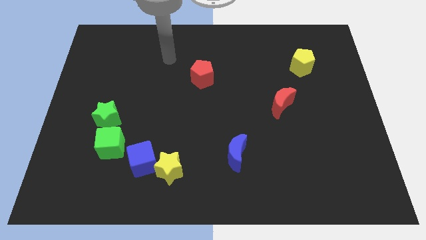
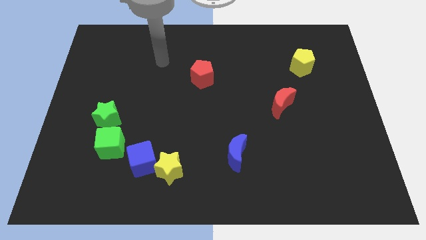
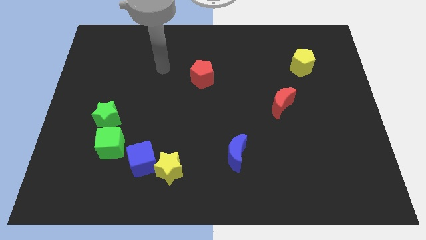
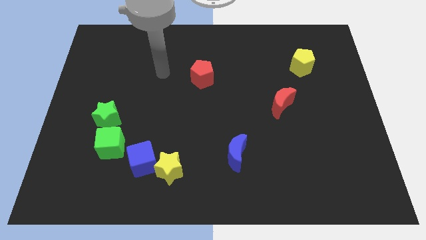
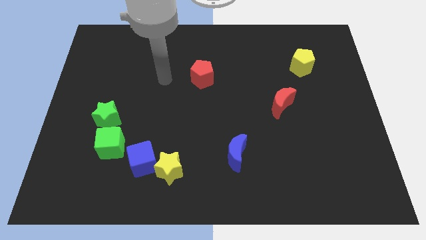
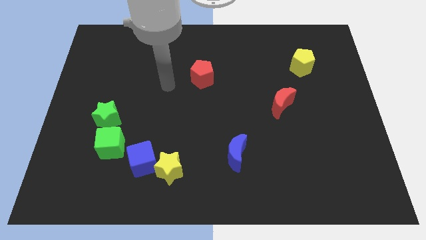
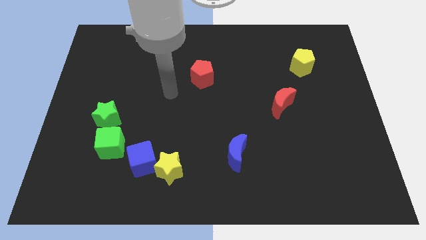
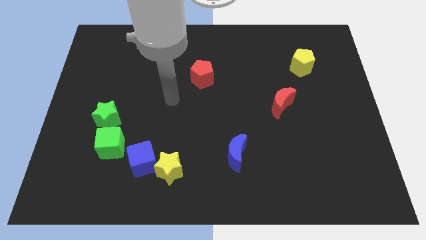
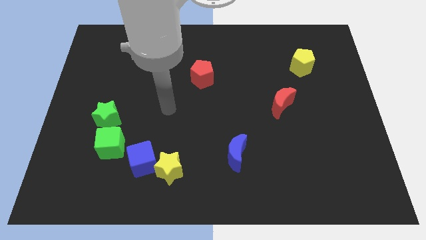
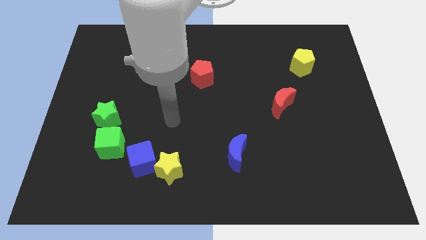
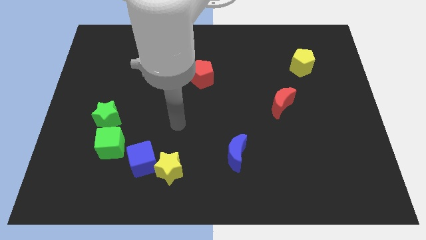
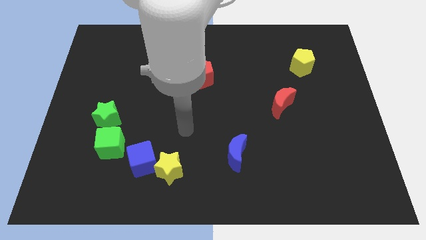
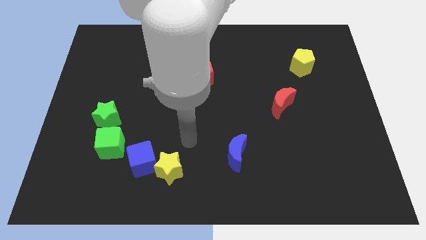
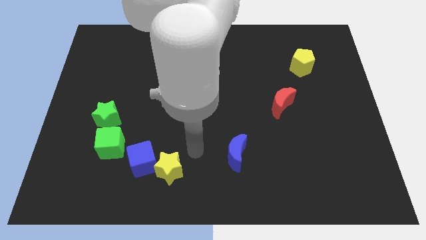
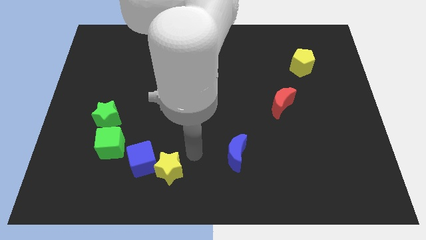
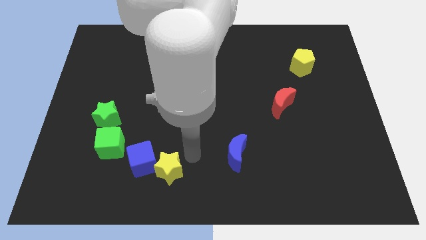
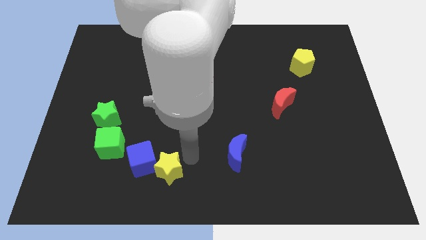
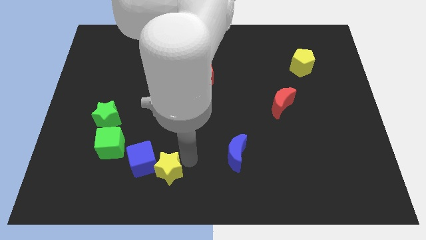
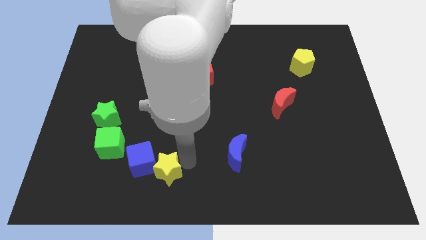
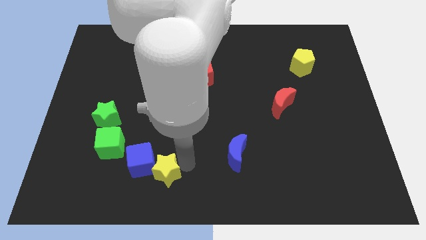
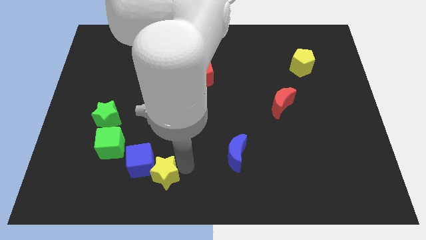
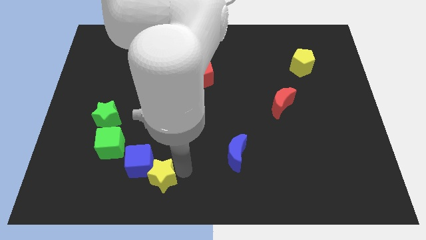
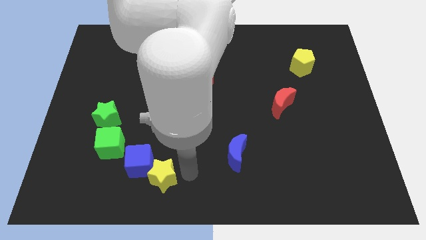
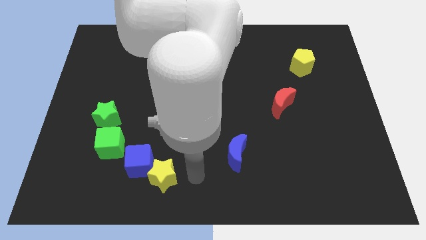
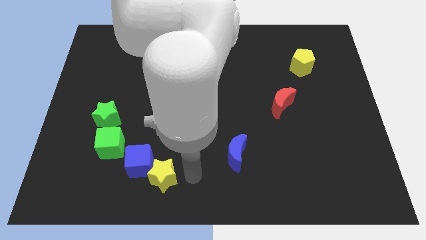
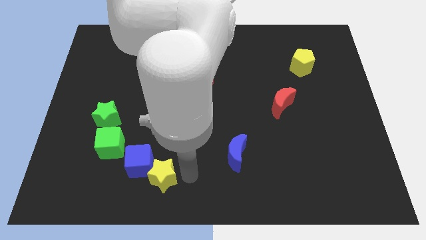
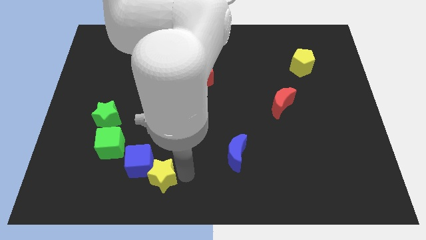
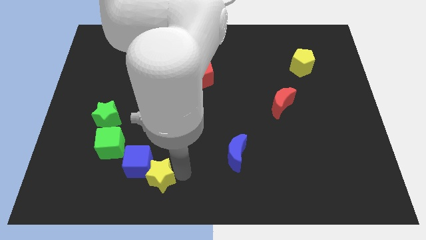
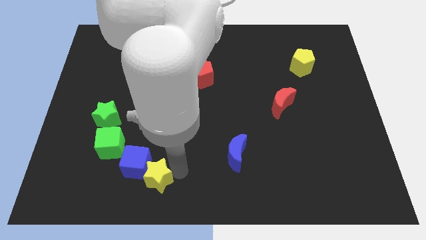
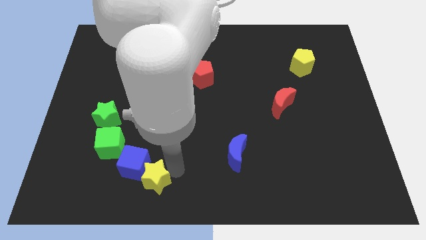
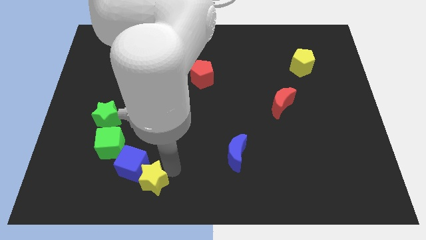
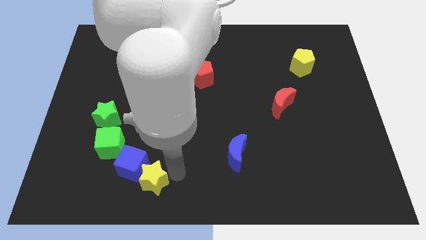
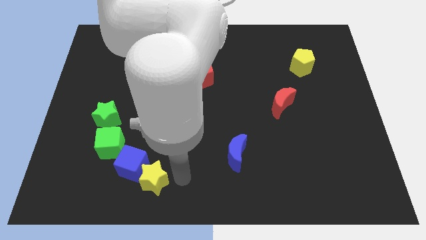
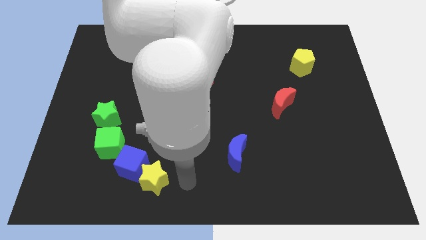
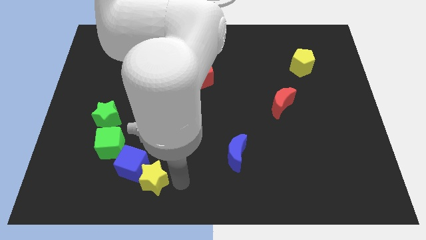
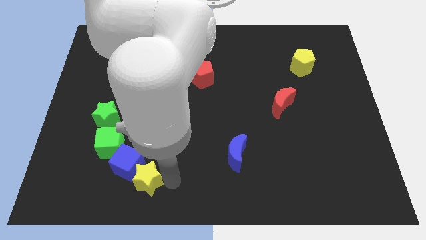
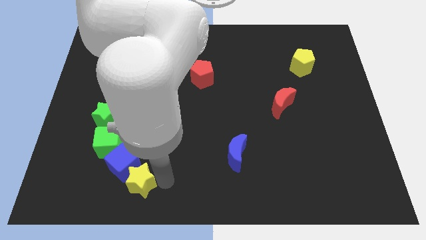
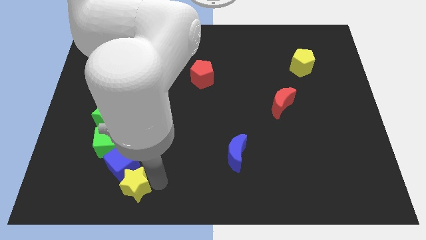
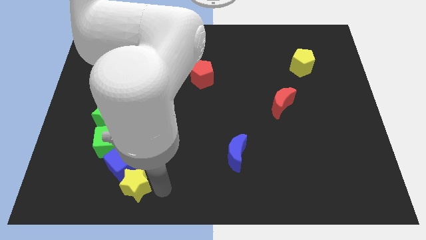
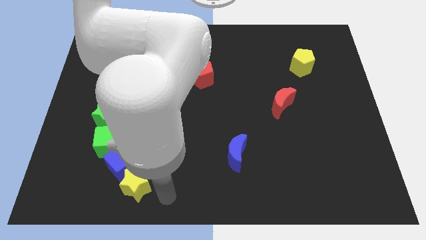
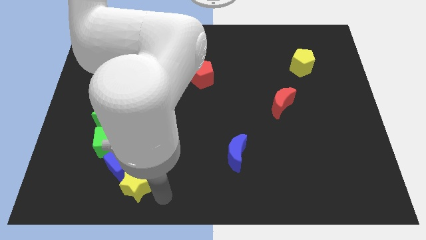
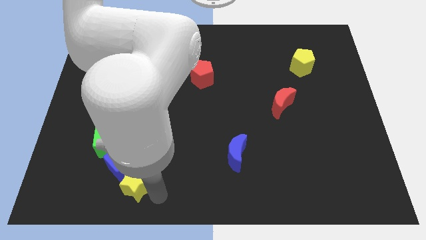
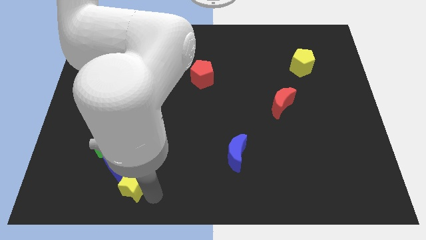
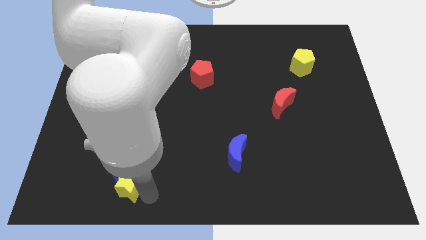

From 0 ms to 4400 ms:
slightly move the yellow star left

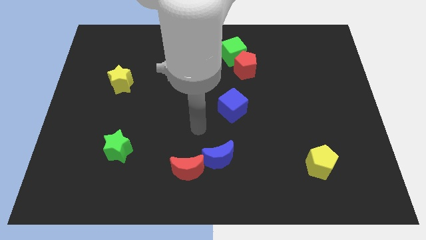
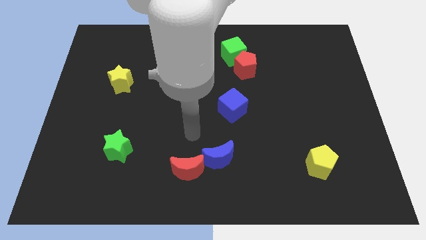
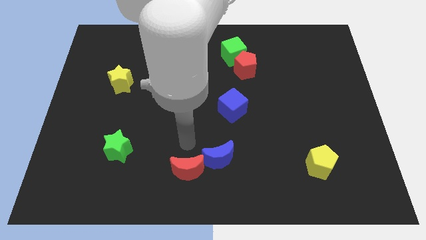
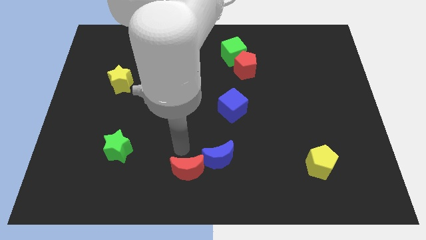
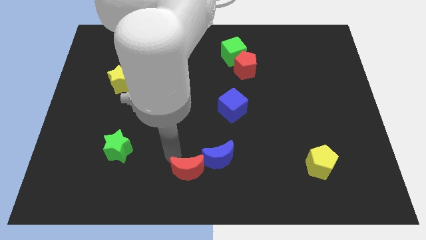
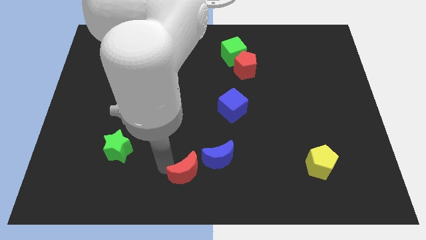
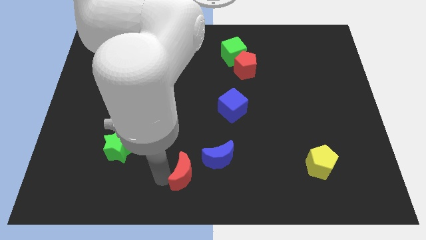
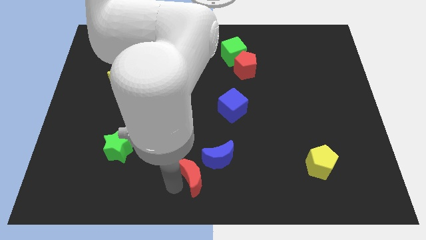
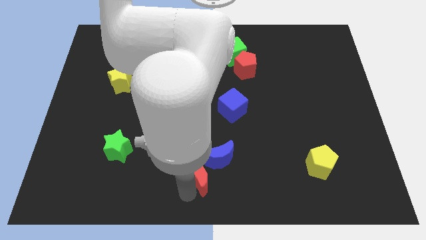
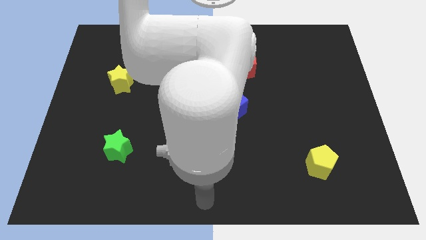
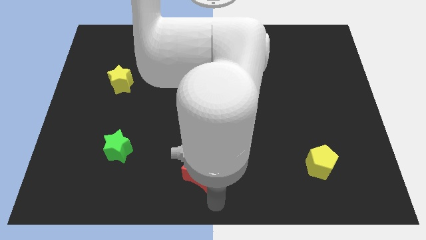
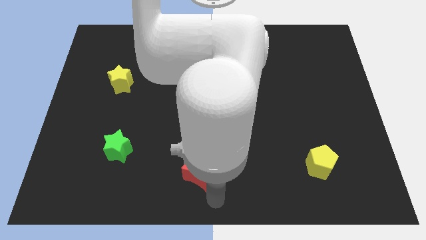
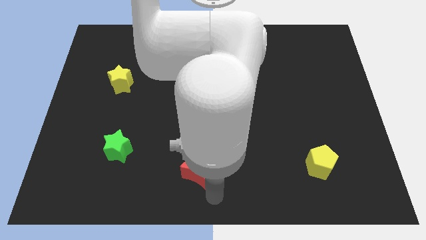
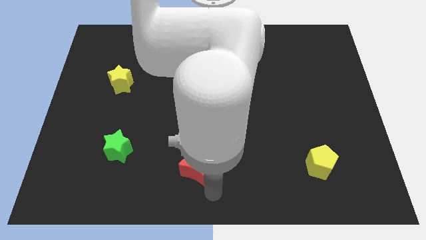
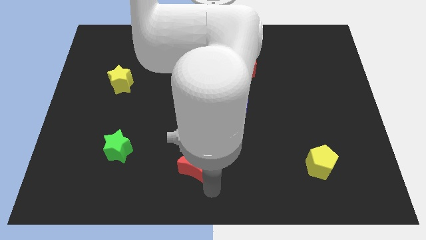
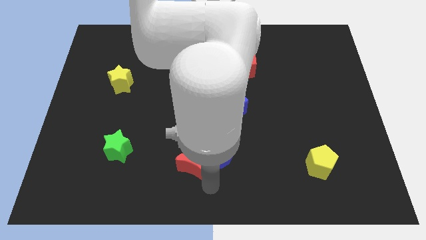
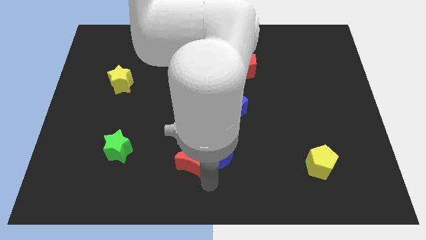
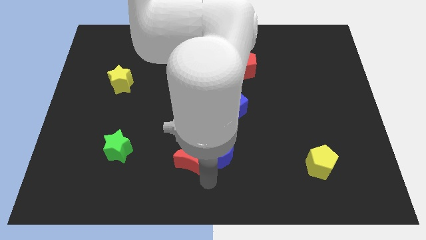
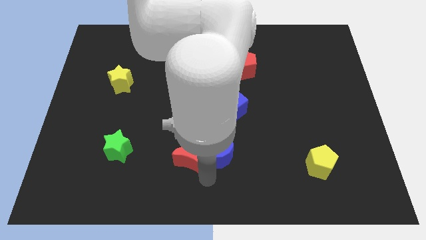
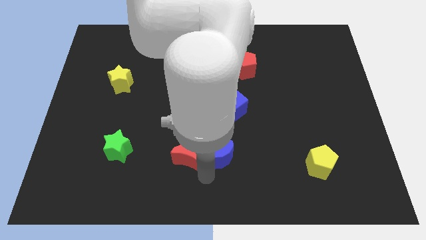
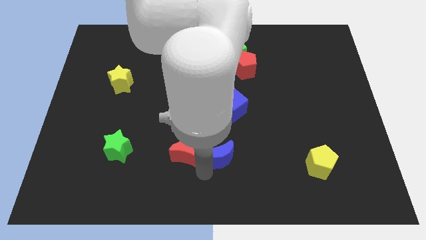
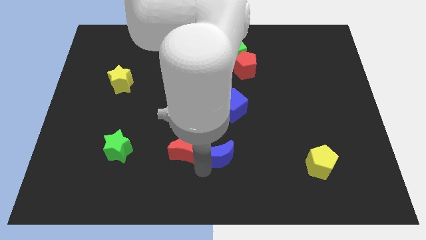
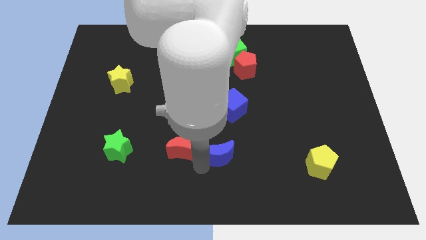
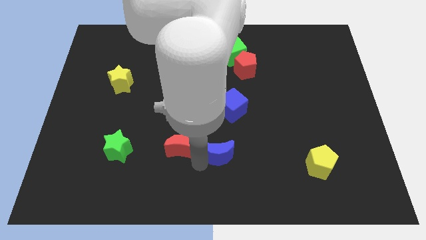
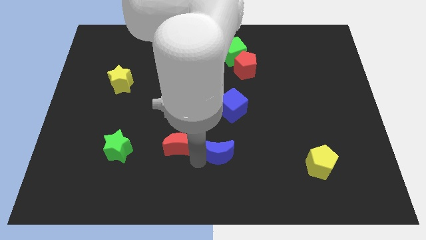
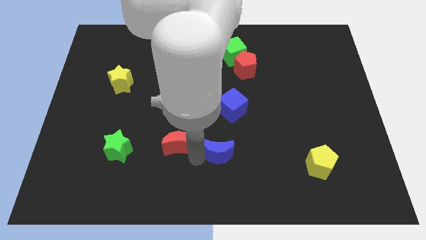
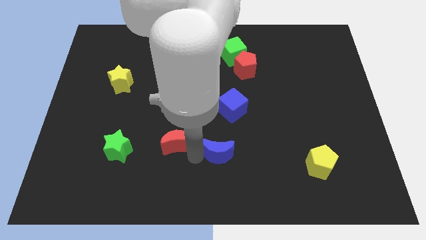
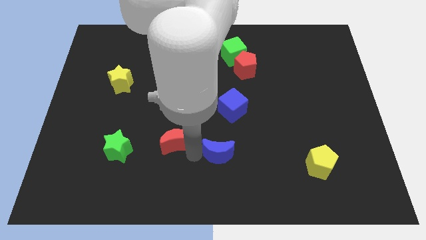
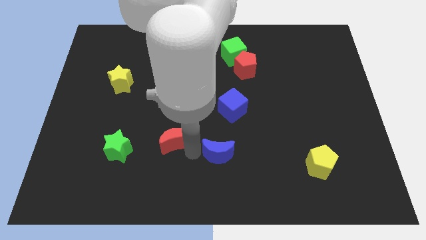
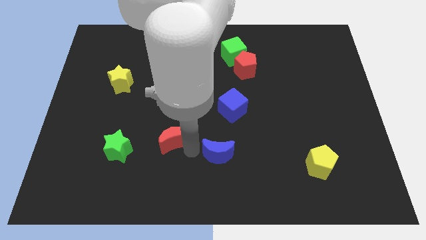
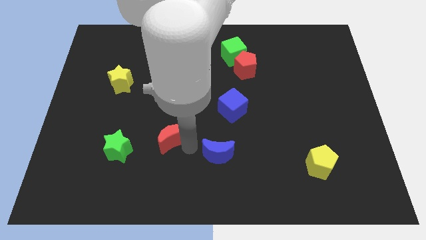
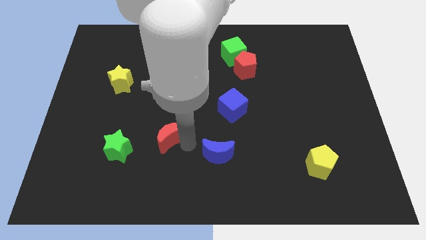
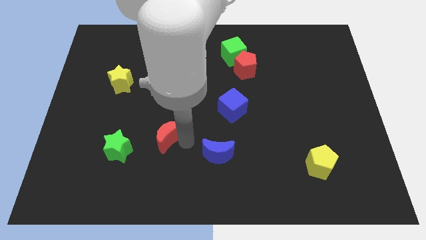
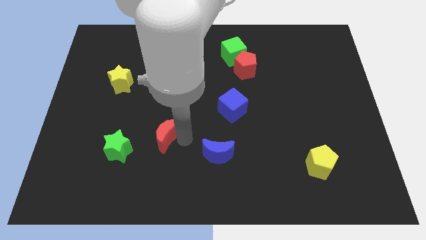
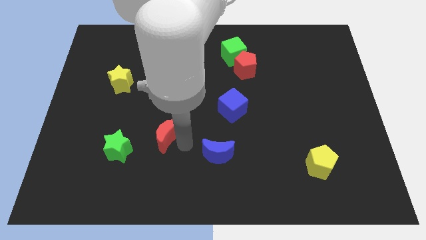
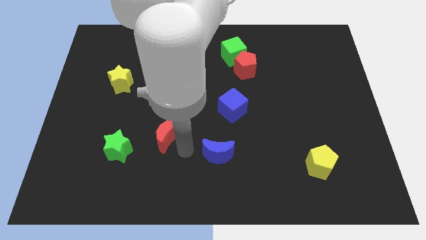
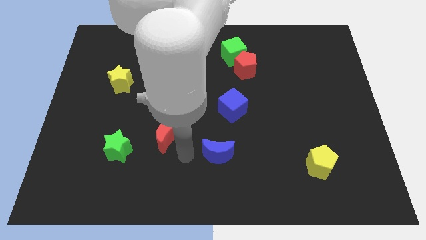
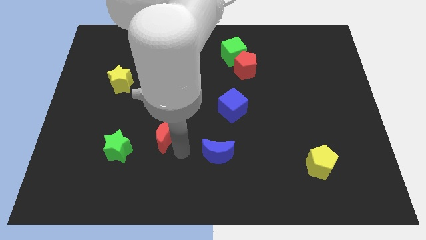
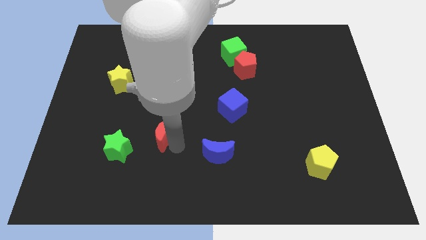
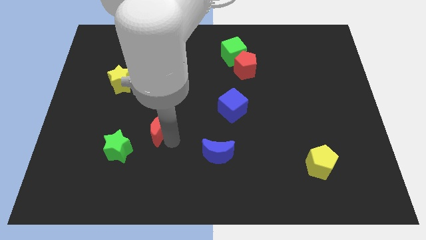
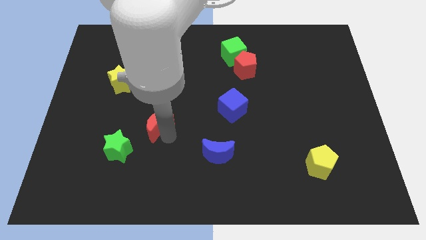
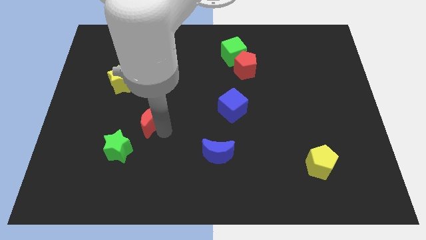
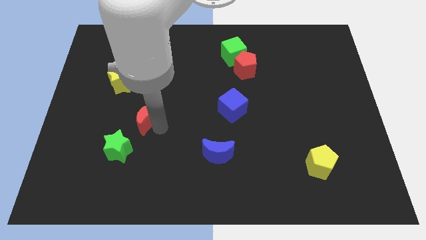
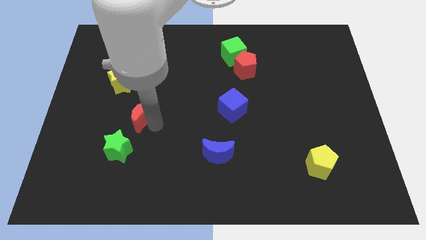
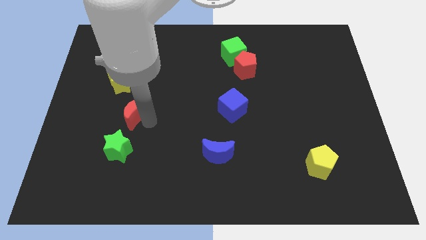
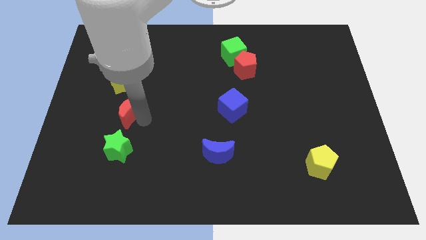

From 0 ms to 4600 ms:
move the red moon upwards and to the left diagonally
